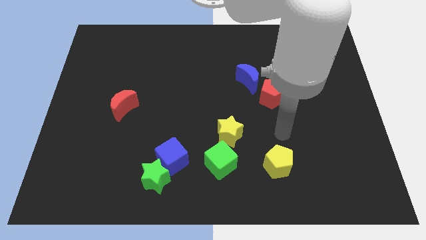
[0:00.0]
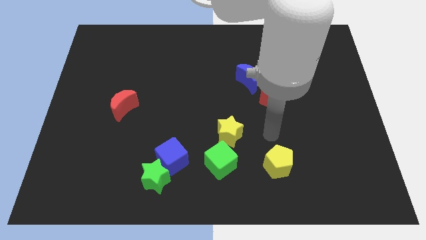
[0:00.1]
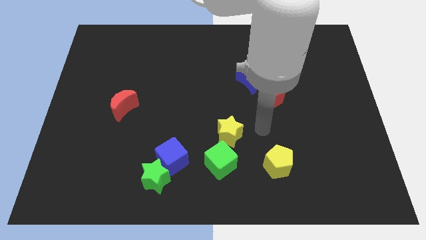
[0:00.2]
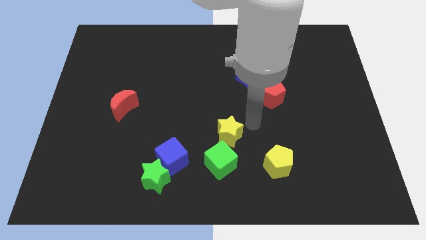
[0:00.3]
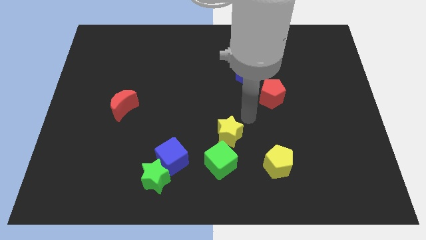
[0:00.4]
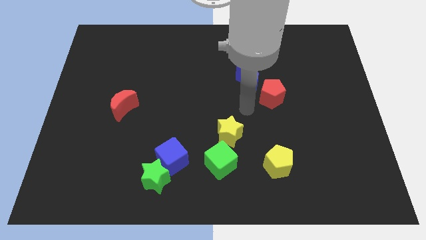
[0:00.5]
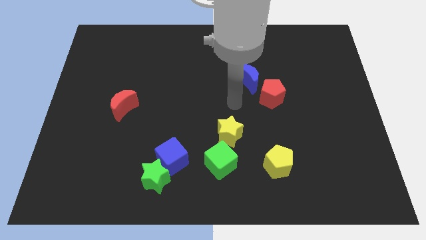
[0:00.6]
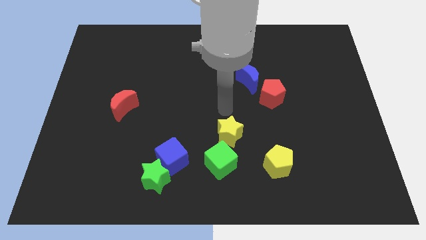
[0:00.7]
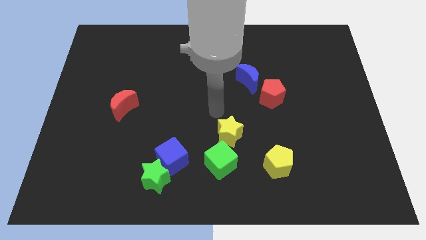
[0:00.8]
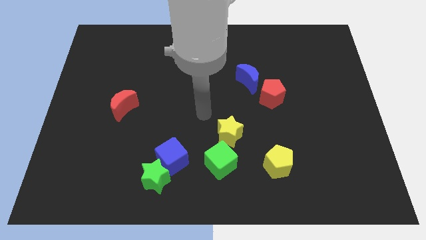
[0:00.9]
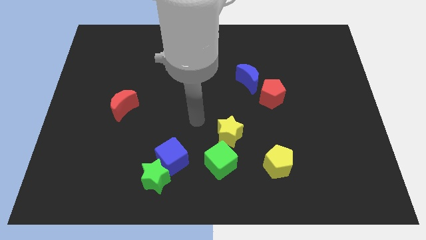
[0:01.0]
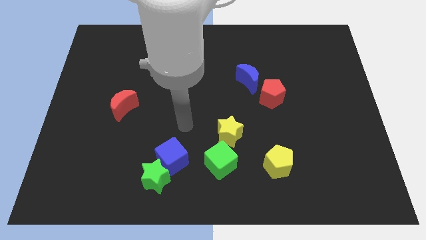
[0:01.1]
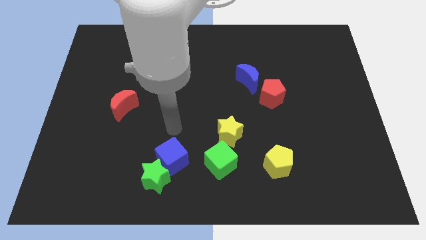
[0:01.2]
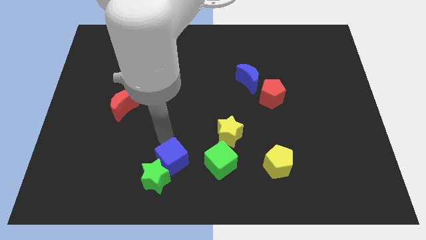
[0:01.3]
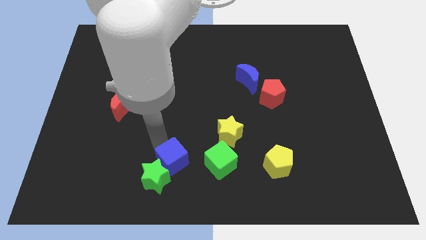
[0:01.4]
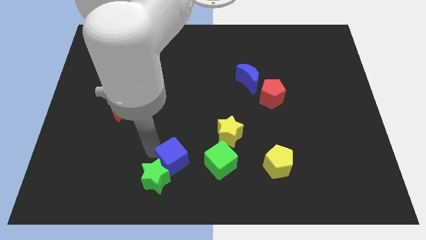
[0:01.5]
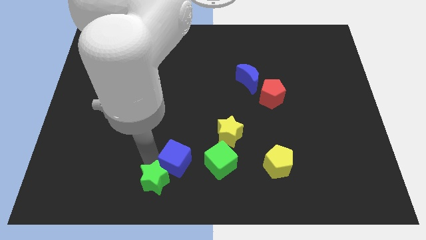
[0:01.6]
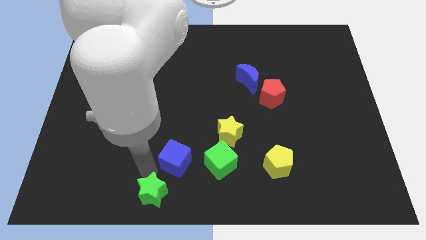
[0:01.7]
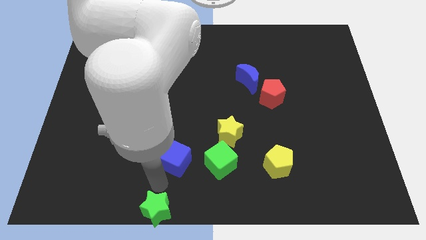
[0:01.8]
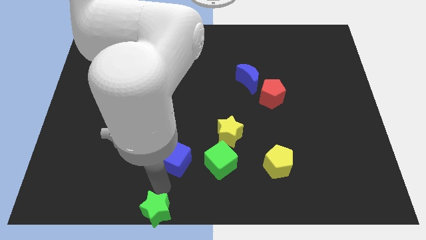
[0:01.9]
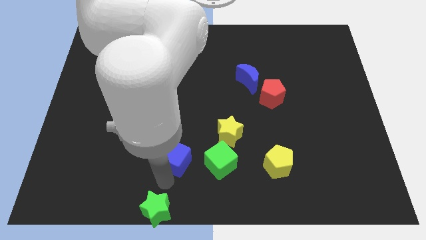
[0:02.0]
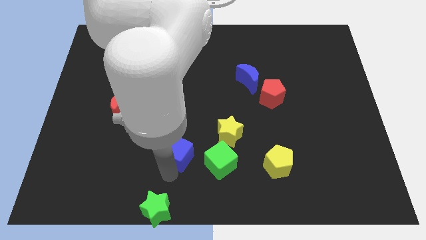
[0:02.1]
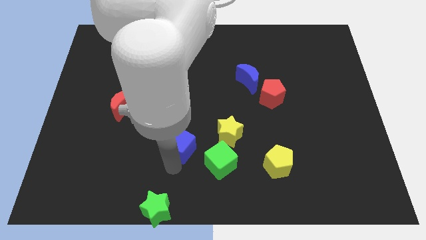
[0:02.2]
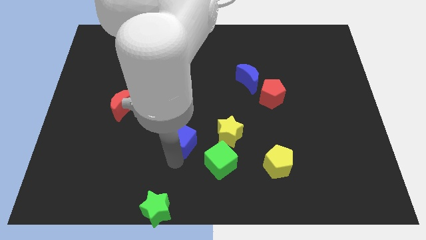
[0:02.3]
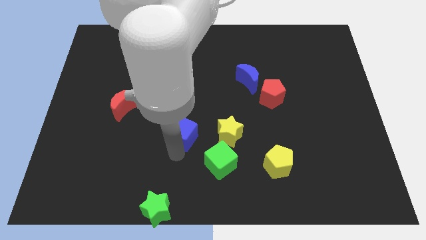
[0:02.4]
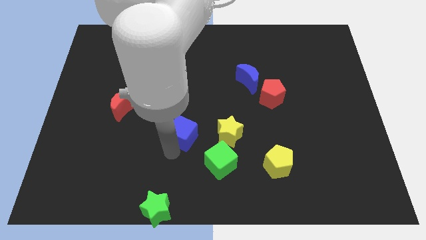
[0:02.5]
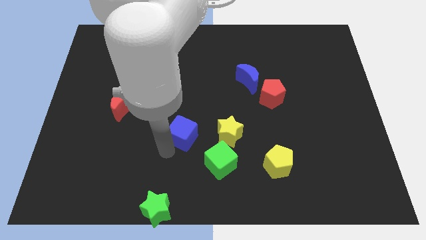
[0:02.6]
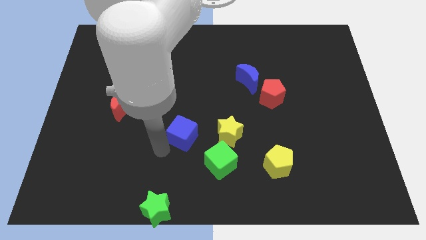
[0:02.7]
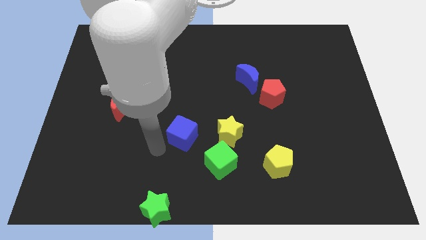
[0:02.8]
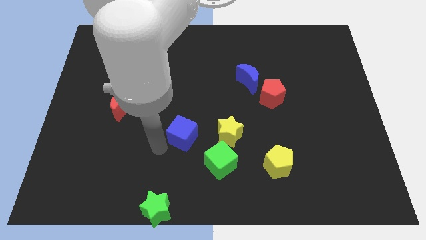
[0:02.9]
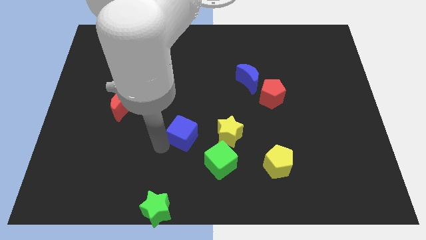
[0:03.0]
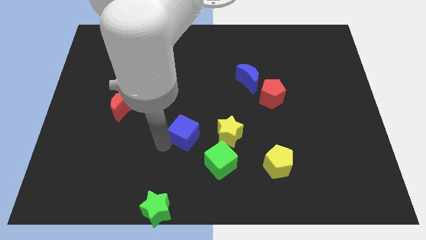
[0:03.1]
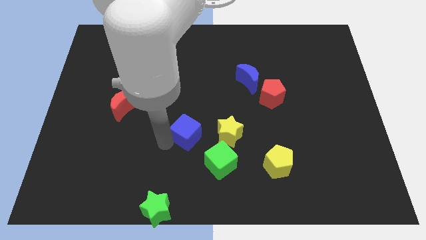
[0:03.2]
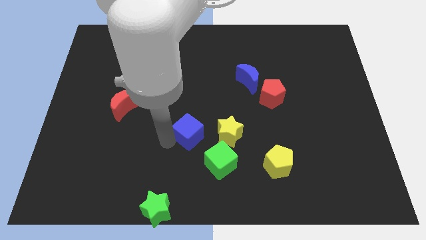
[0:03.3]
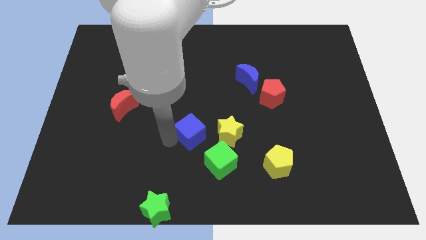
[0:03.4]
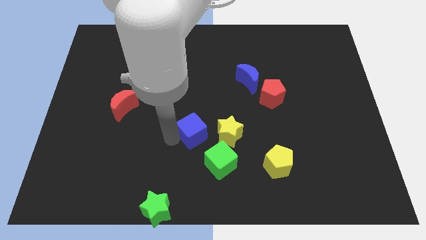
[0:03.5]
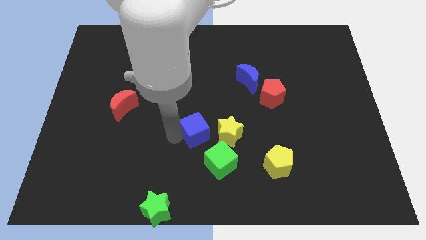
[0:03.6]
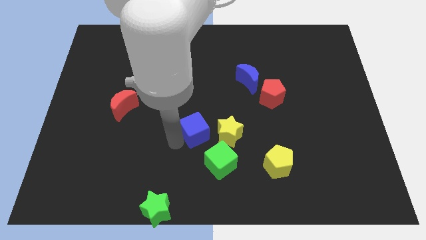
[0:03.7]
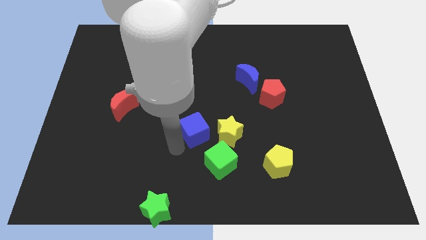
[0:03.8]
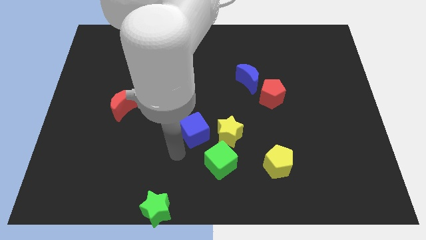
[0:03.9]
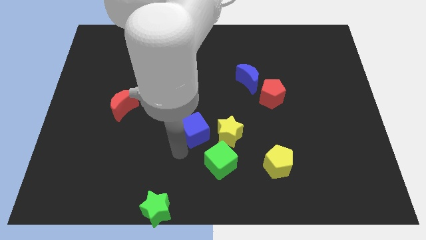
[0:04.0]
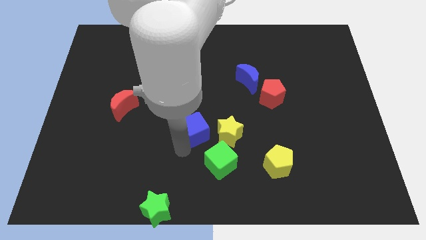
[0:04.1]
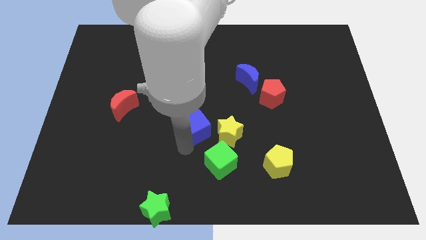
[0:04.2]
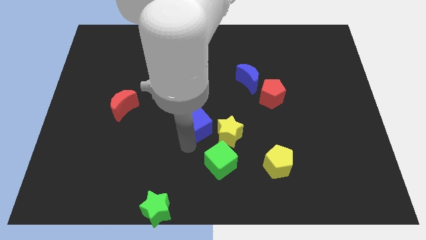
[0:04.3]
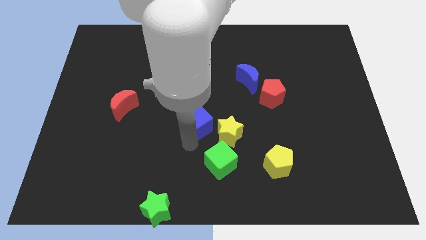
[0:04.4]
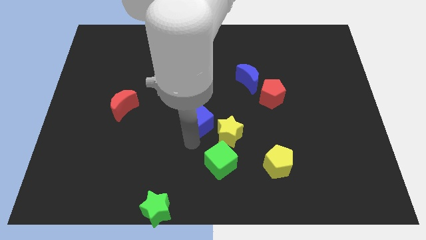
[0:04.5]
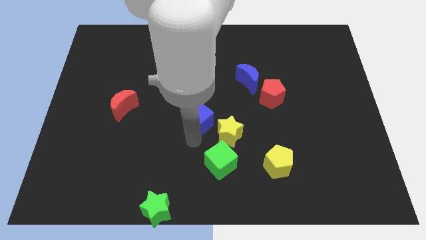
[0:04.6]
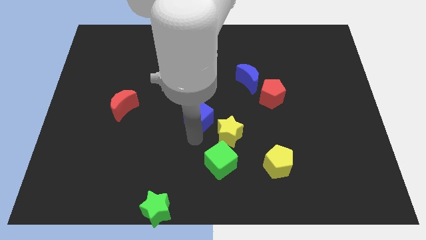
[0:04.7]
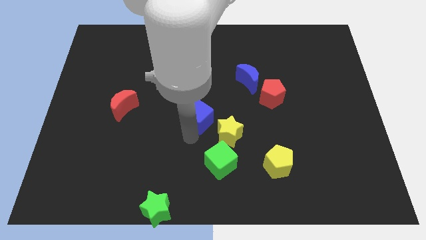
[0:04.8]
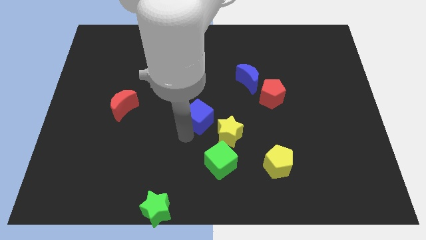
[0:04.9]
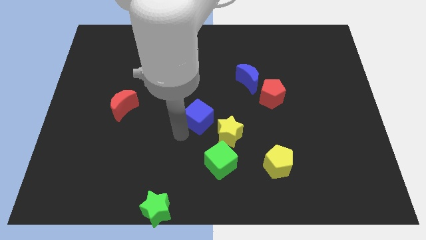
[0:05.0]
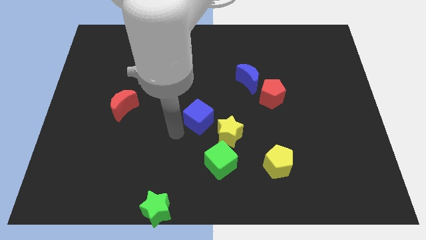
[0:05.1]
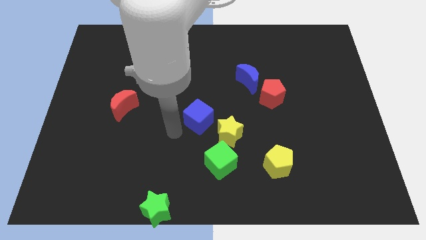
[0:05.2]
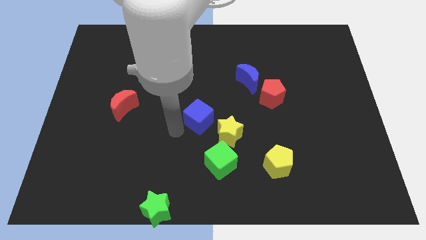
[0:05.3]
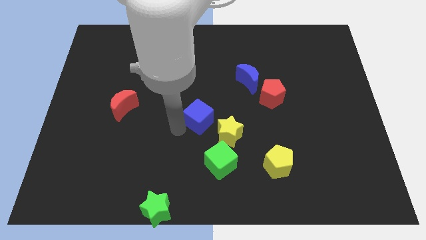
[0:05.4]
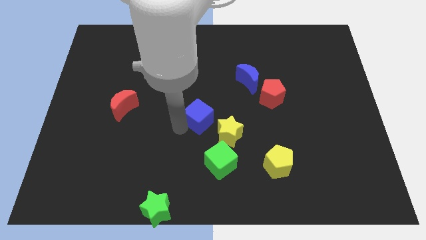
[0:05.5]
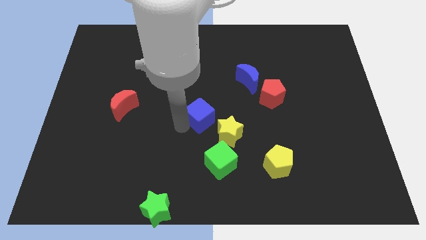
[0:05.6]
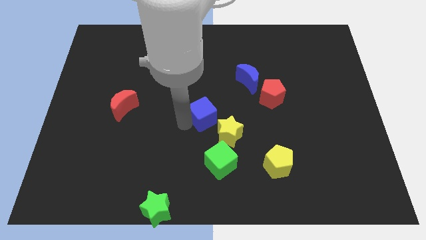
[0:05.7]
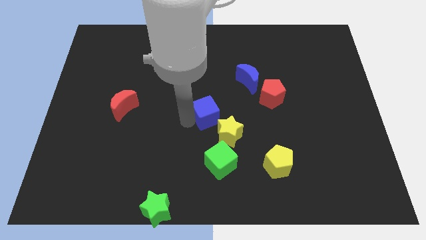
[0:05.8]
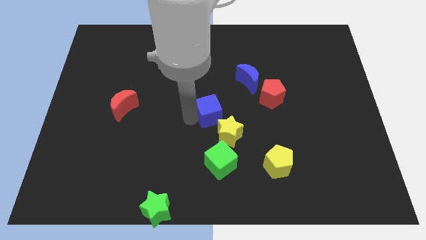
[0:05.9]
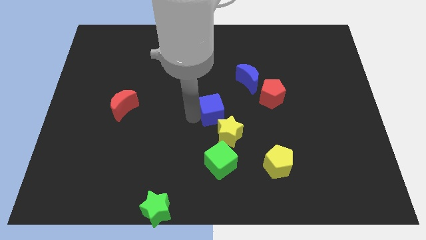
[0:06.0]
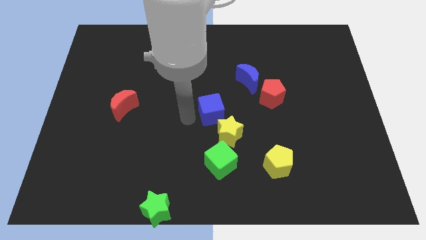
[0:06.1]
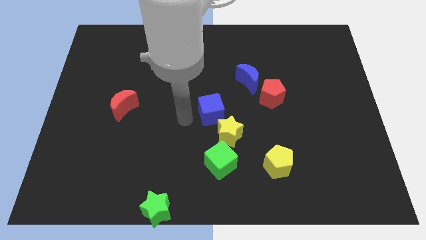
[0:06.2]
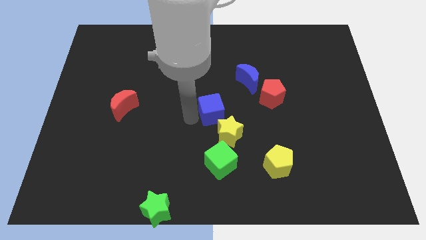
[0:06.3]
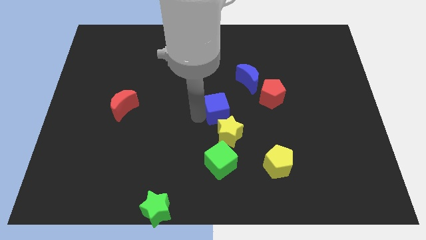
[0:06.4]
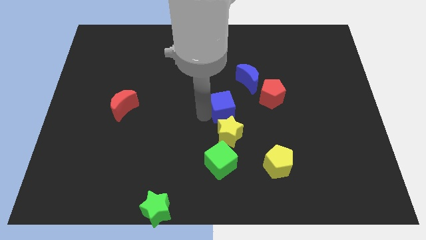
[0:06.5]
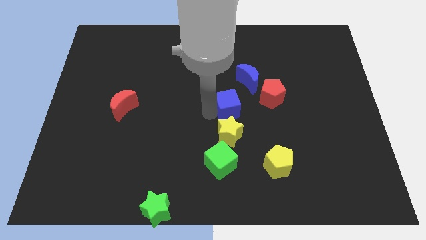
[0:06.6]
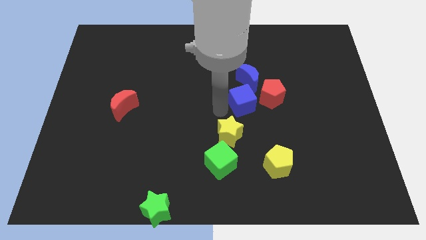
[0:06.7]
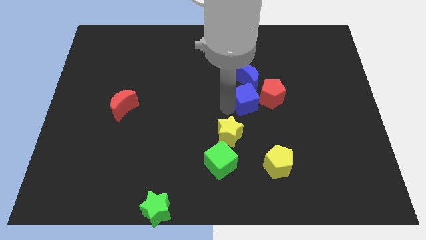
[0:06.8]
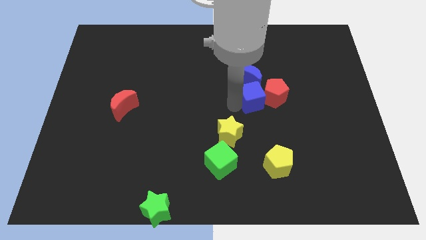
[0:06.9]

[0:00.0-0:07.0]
slide the blue cube to the red pentagon
